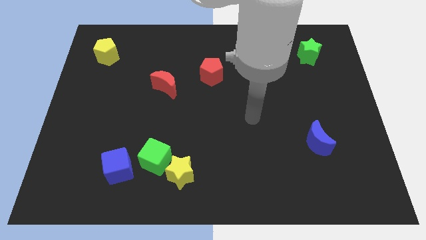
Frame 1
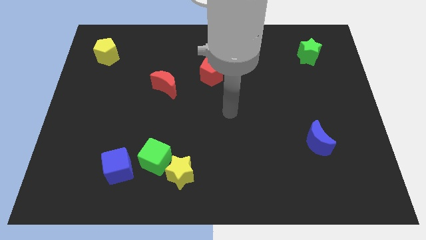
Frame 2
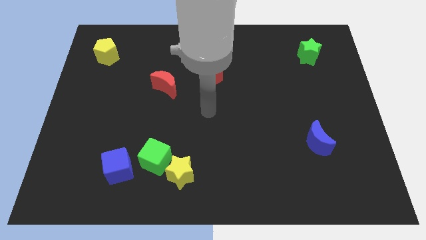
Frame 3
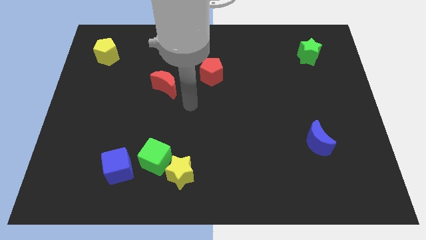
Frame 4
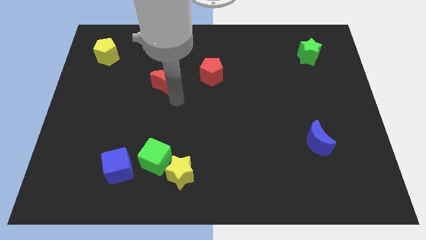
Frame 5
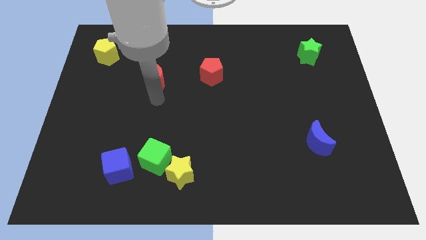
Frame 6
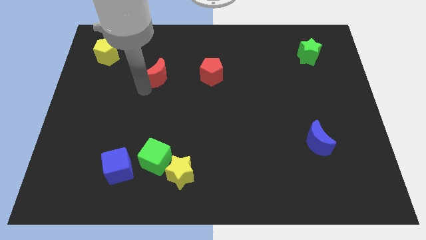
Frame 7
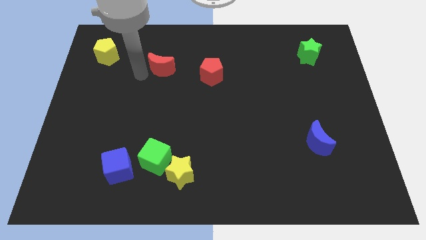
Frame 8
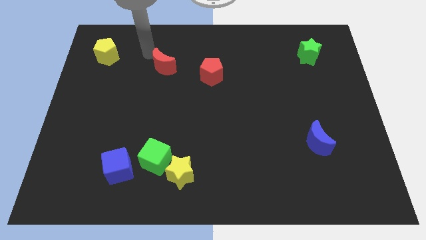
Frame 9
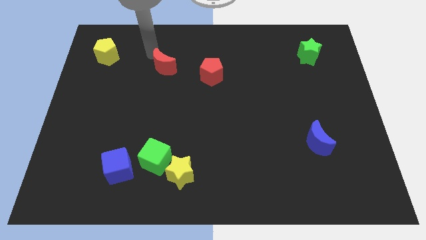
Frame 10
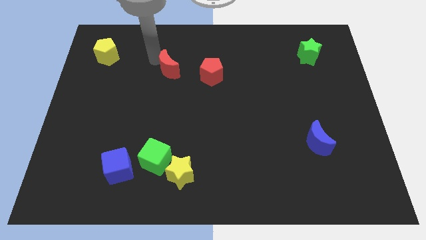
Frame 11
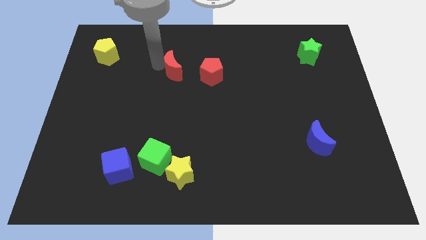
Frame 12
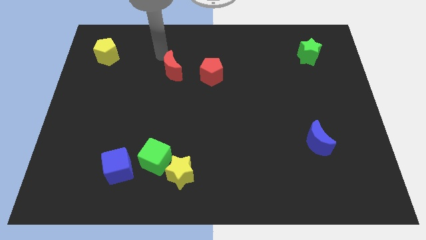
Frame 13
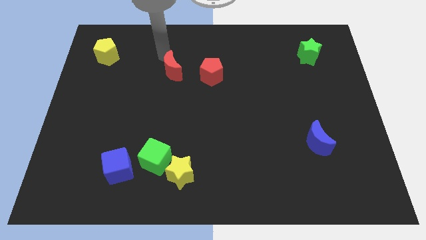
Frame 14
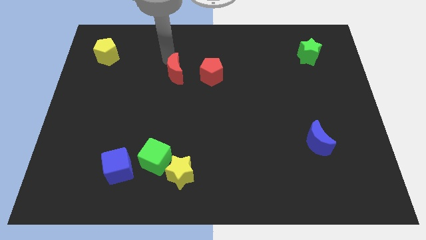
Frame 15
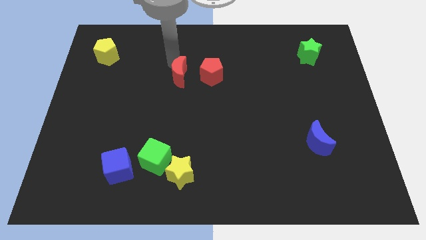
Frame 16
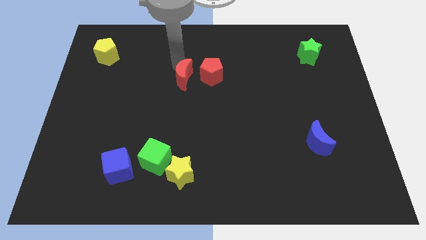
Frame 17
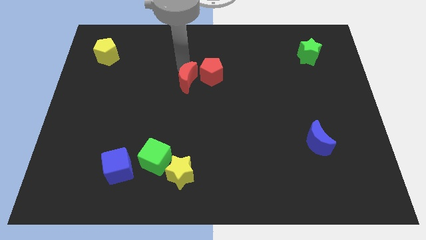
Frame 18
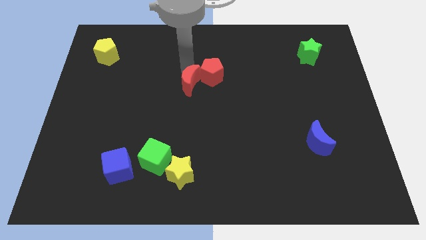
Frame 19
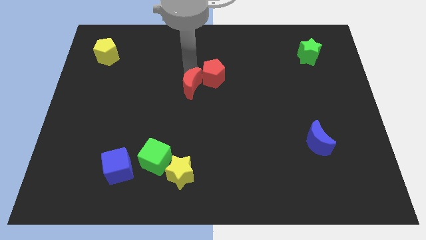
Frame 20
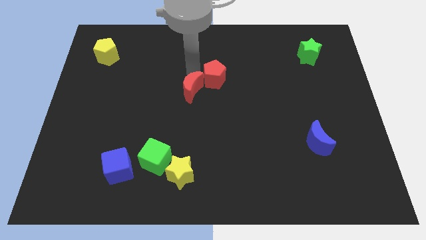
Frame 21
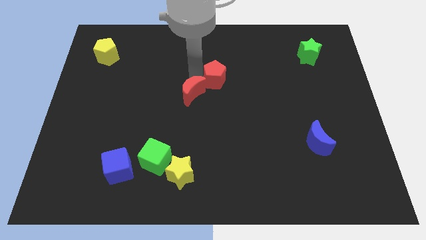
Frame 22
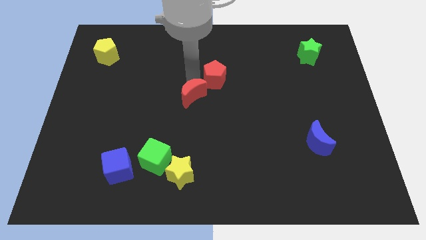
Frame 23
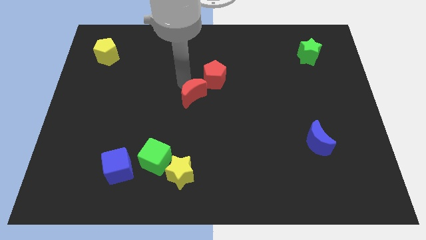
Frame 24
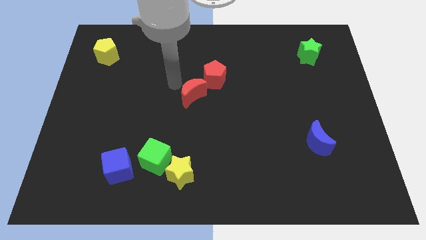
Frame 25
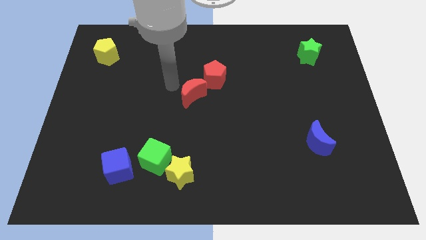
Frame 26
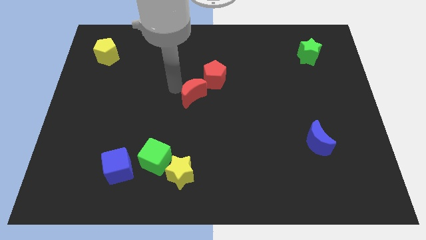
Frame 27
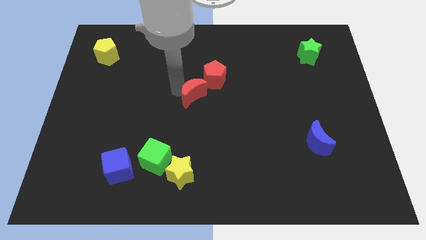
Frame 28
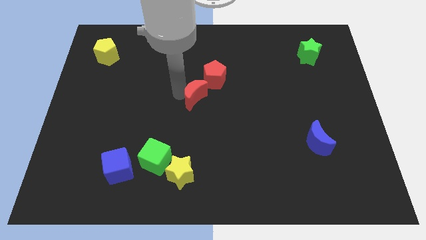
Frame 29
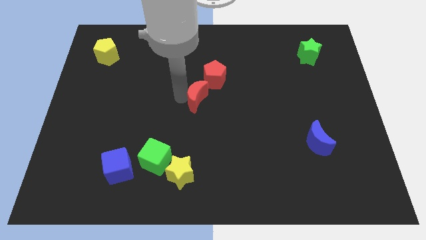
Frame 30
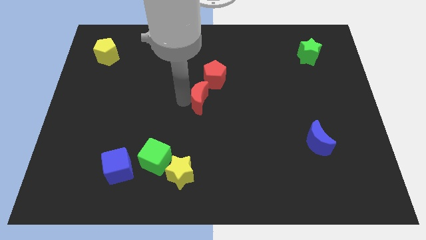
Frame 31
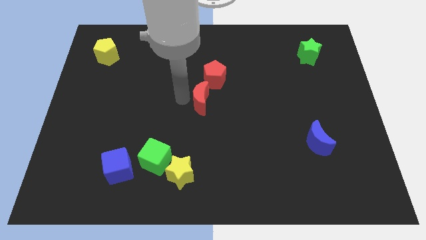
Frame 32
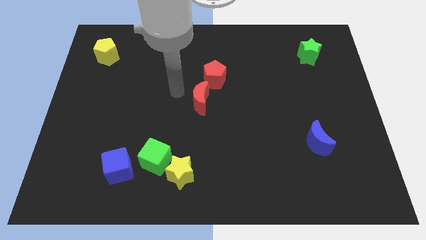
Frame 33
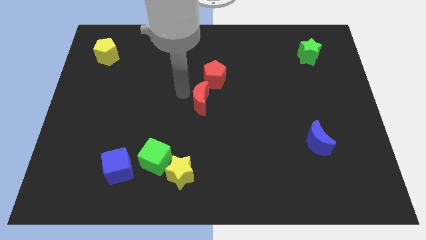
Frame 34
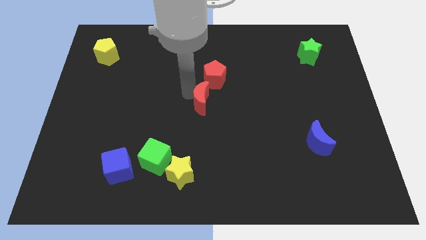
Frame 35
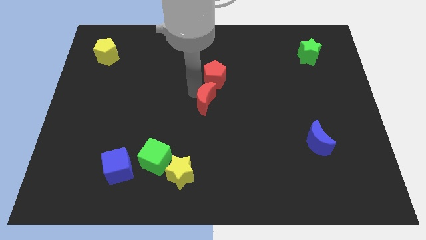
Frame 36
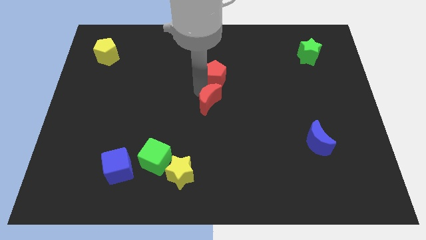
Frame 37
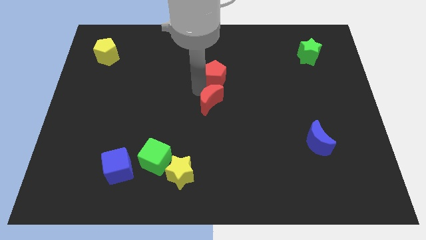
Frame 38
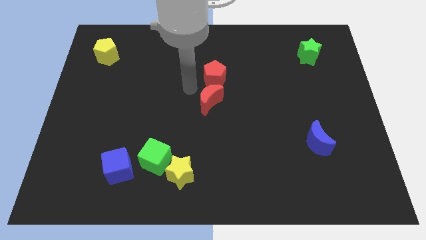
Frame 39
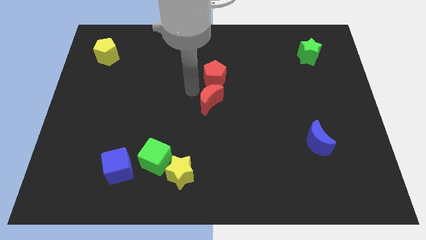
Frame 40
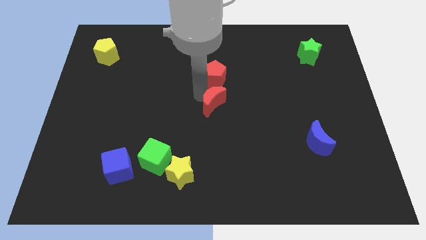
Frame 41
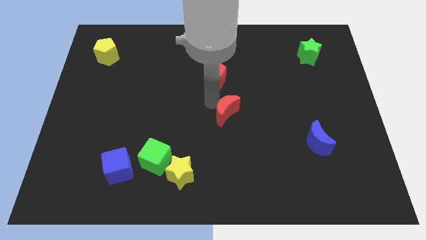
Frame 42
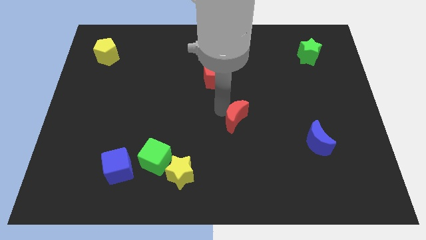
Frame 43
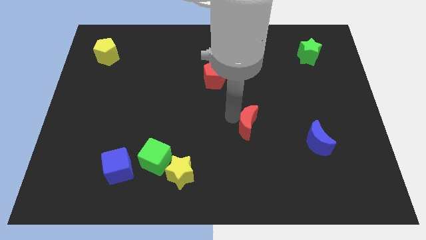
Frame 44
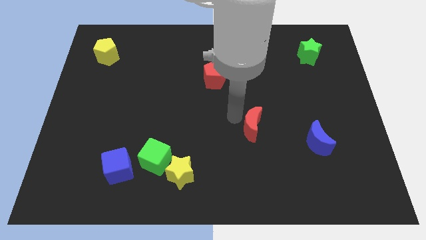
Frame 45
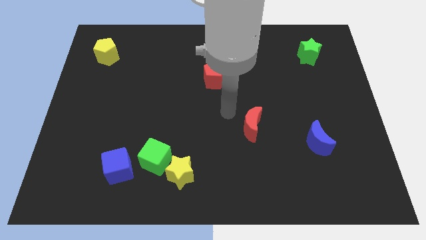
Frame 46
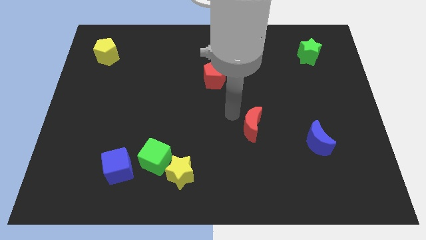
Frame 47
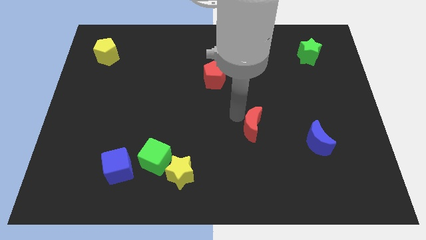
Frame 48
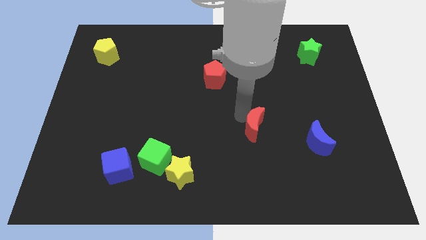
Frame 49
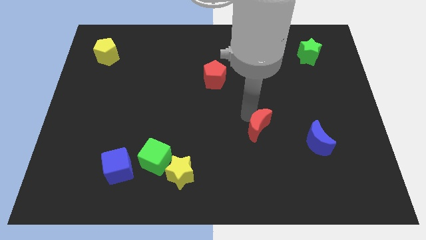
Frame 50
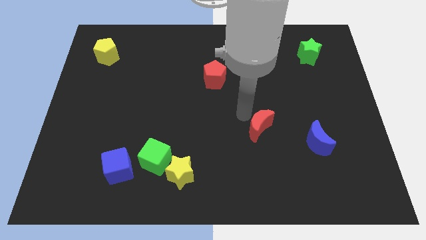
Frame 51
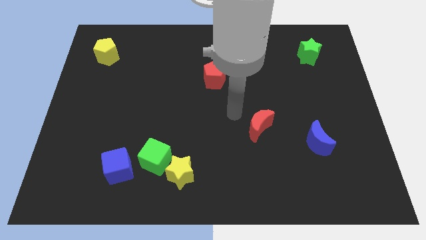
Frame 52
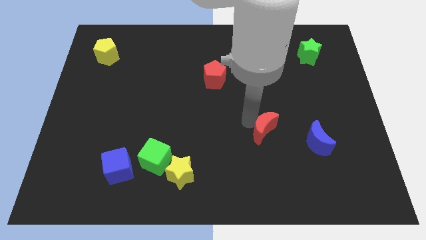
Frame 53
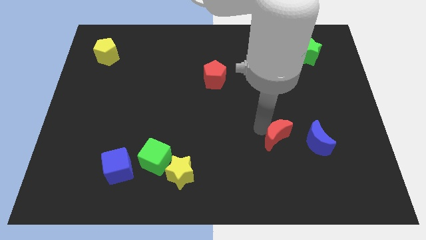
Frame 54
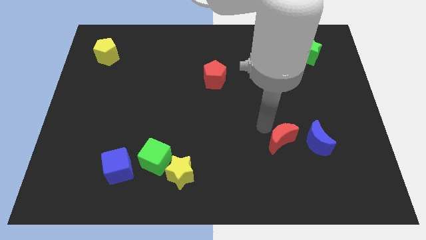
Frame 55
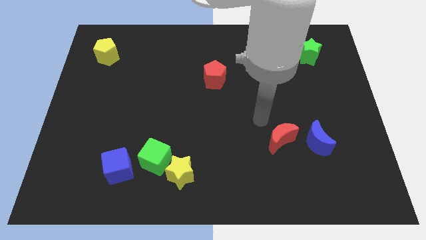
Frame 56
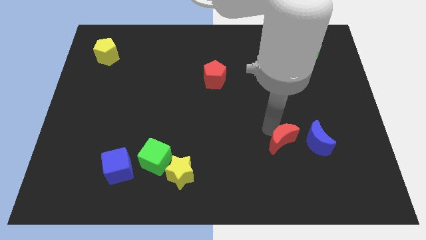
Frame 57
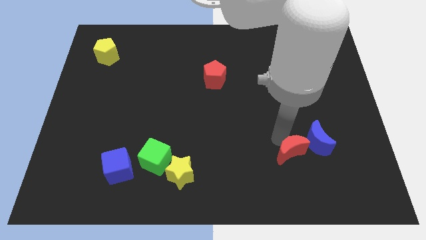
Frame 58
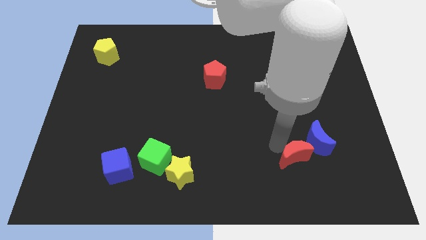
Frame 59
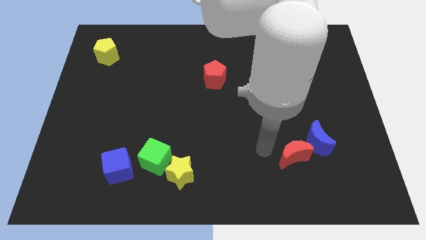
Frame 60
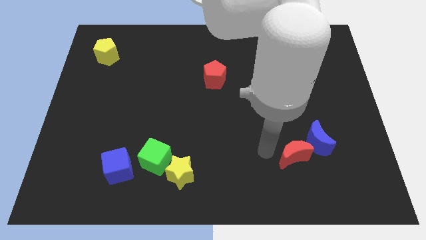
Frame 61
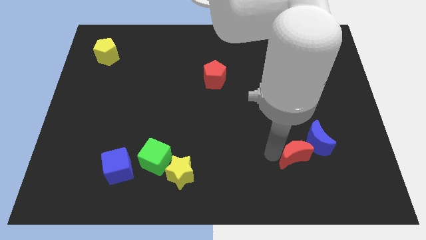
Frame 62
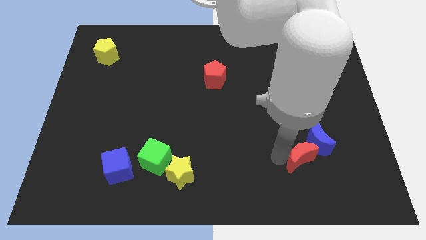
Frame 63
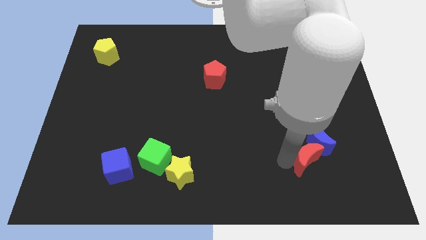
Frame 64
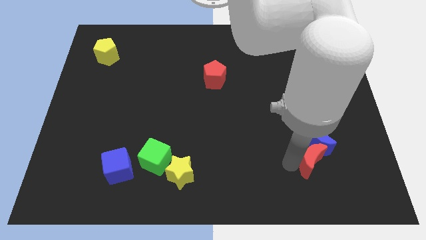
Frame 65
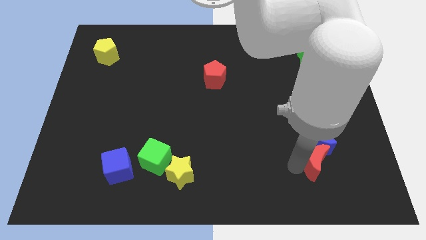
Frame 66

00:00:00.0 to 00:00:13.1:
move the red moon diagonally down and to the right of the blue moon

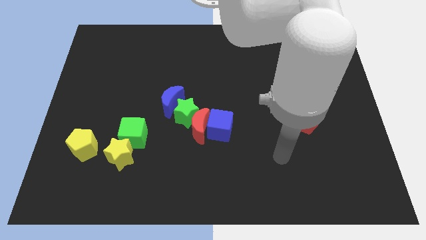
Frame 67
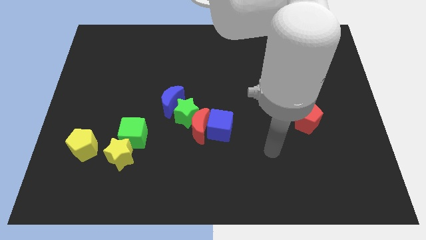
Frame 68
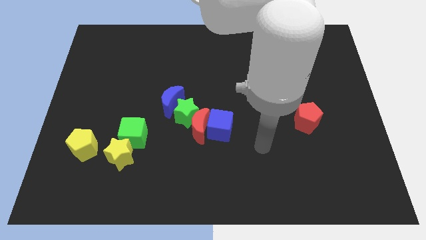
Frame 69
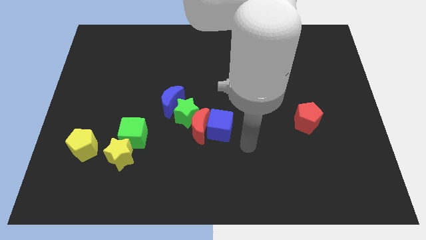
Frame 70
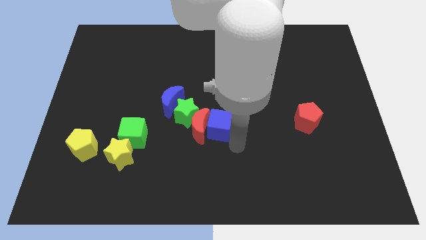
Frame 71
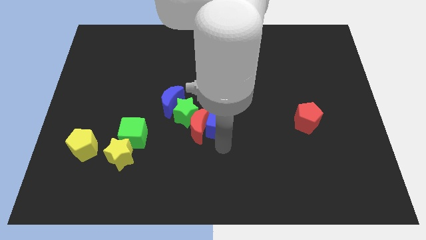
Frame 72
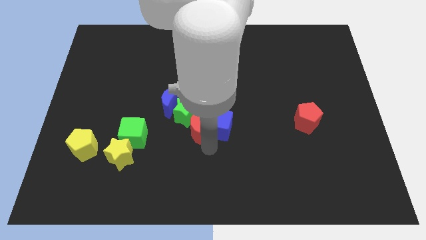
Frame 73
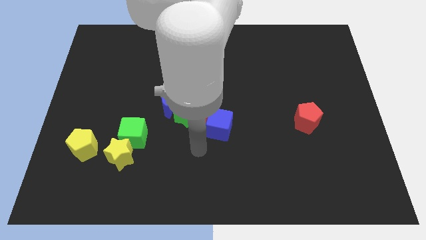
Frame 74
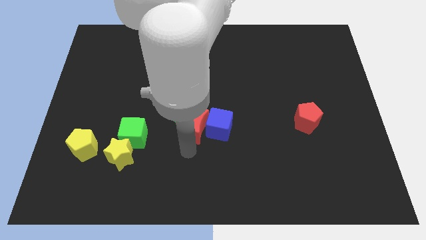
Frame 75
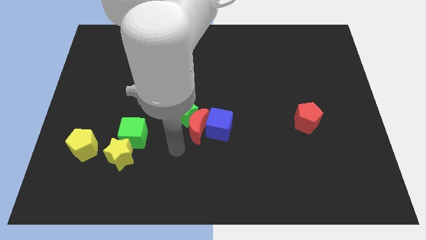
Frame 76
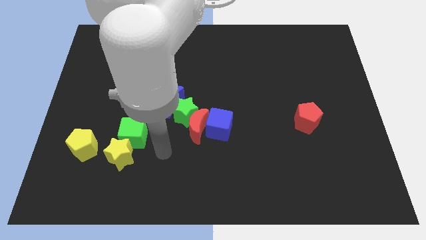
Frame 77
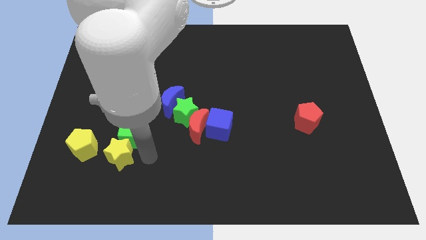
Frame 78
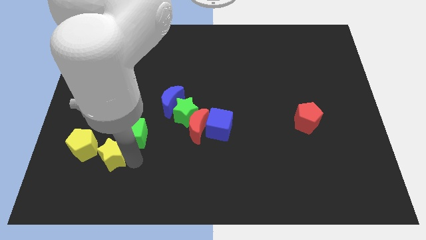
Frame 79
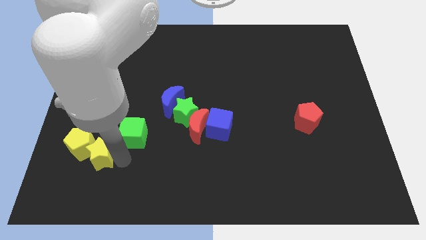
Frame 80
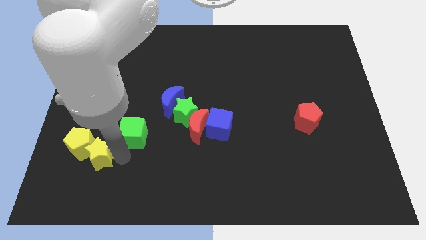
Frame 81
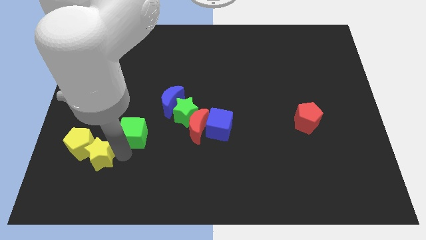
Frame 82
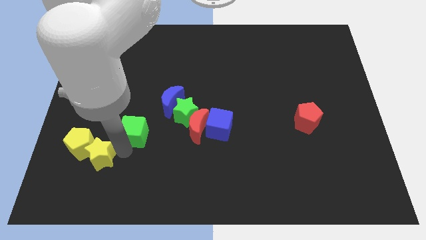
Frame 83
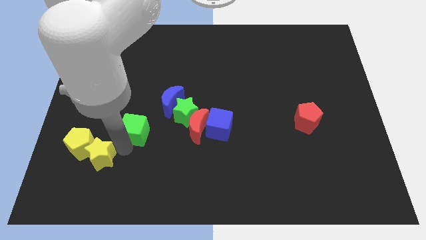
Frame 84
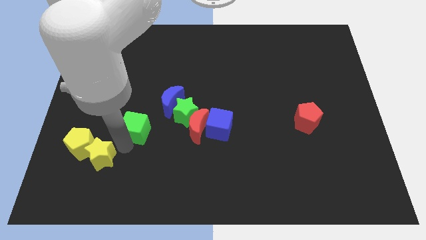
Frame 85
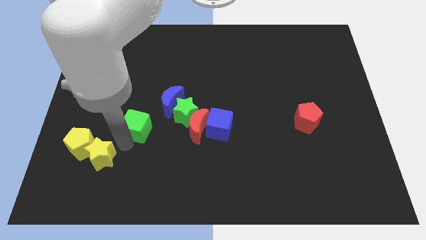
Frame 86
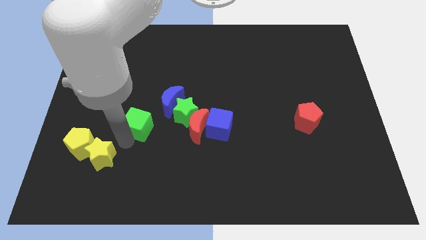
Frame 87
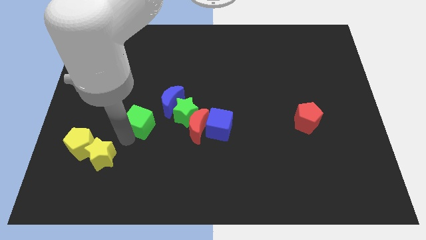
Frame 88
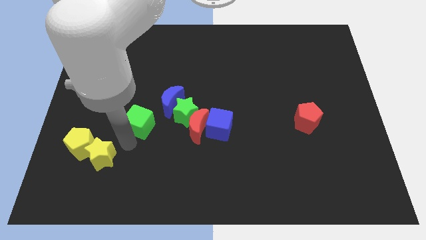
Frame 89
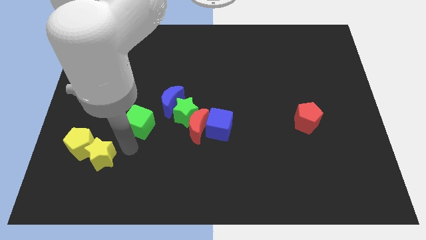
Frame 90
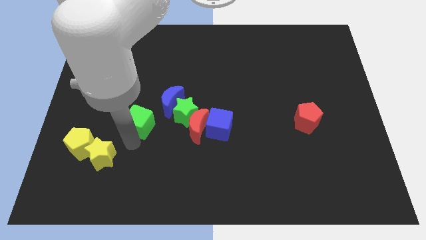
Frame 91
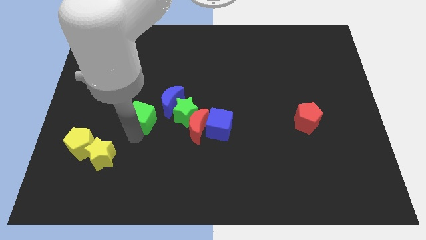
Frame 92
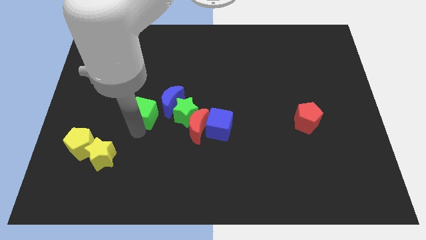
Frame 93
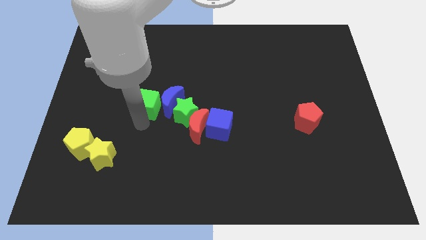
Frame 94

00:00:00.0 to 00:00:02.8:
move the green cube diagonally up and to the left of the blue moon
